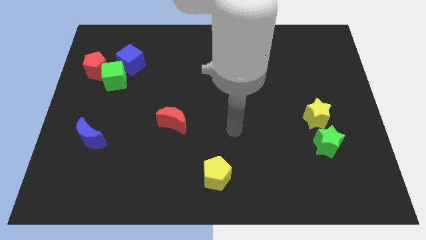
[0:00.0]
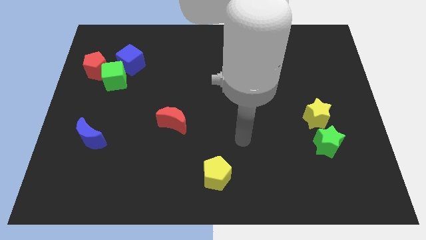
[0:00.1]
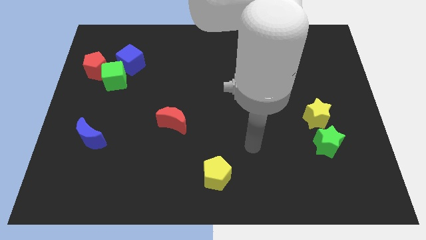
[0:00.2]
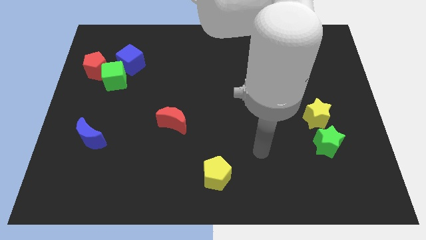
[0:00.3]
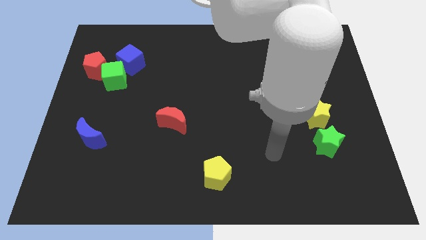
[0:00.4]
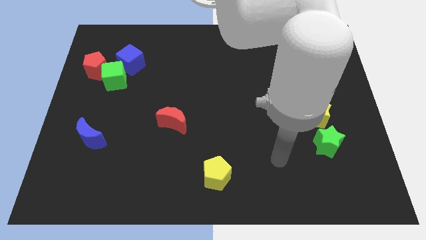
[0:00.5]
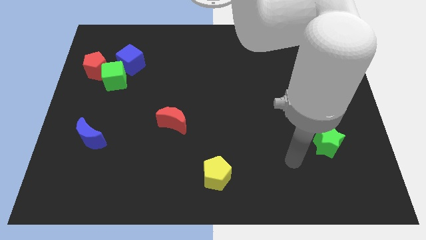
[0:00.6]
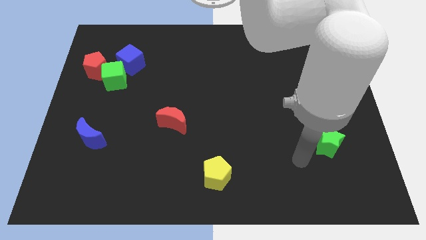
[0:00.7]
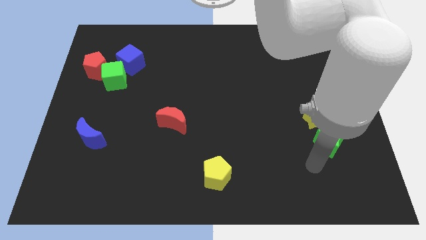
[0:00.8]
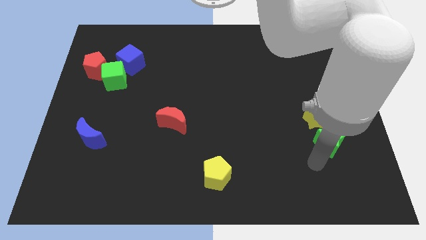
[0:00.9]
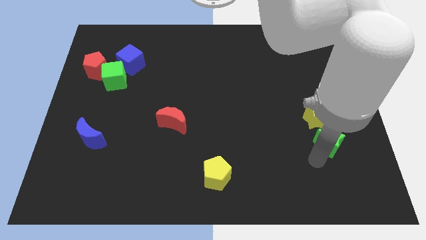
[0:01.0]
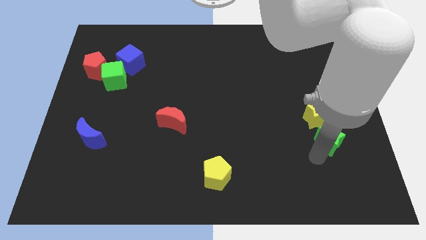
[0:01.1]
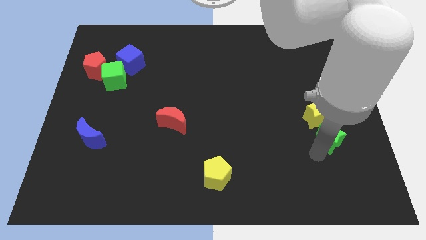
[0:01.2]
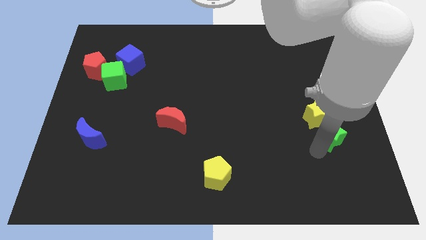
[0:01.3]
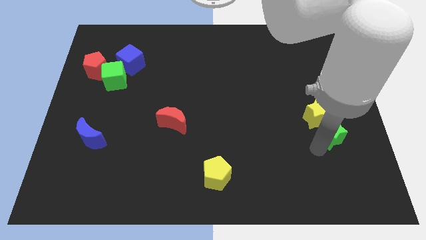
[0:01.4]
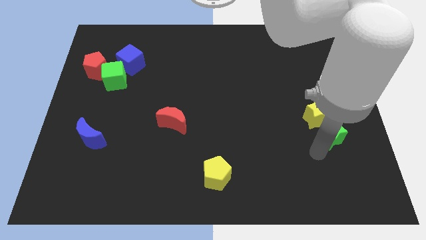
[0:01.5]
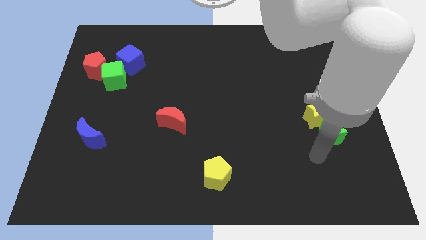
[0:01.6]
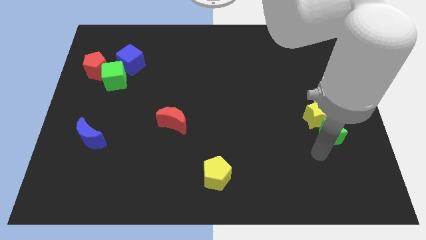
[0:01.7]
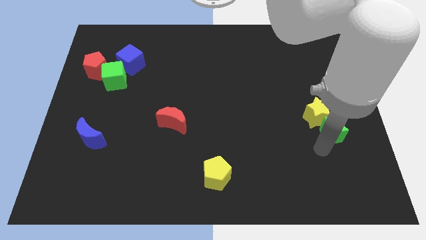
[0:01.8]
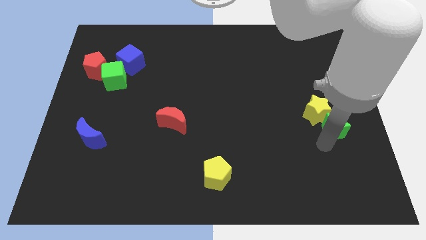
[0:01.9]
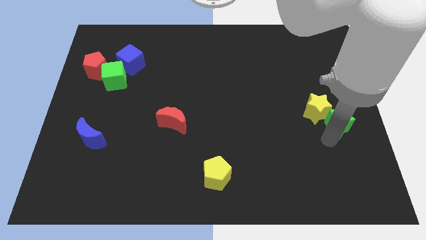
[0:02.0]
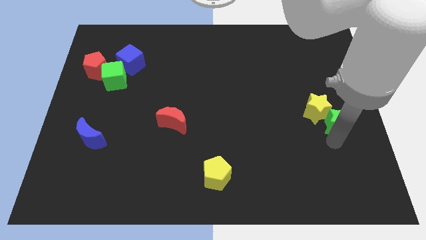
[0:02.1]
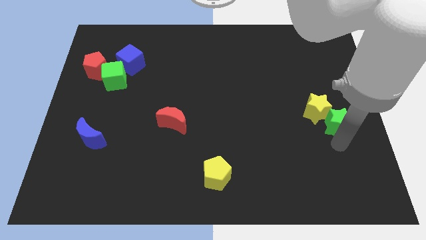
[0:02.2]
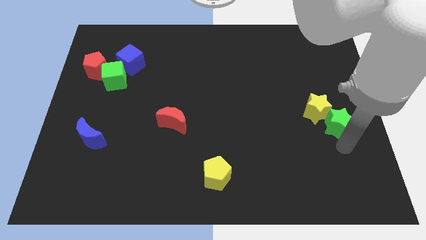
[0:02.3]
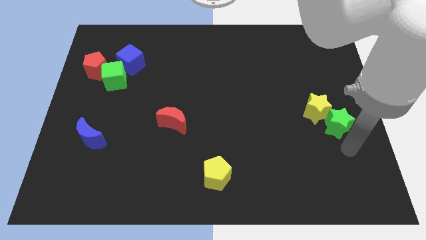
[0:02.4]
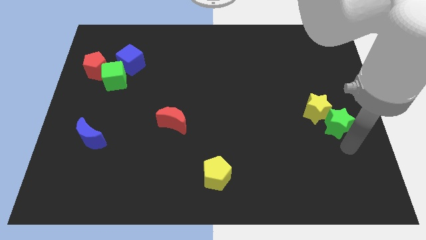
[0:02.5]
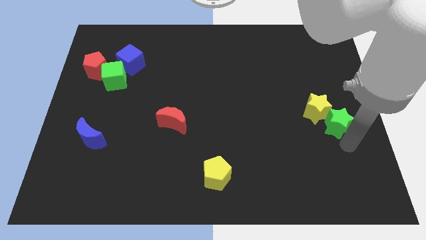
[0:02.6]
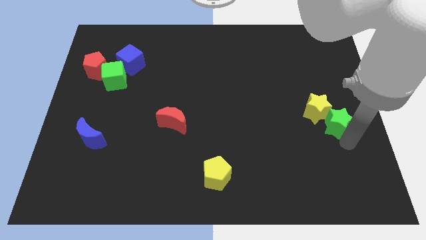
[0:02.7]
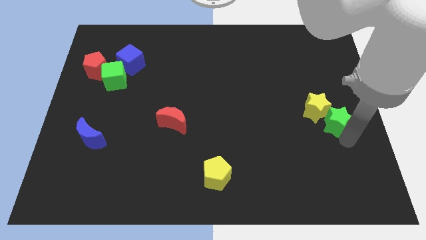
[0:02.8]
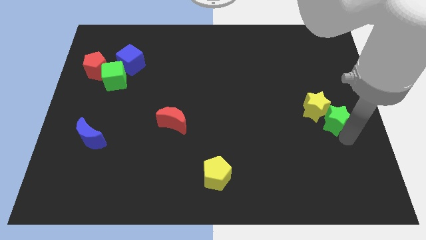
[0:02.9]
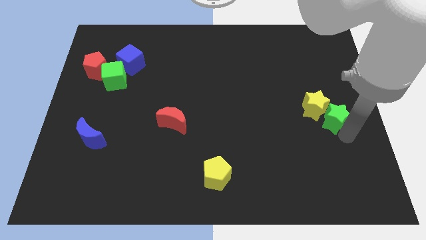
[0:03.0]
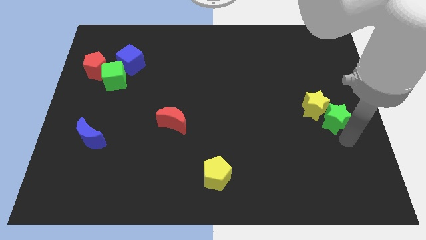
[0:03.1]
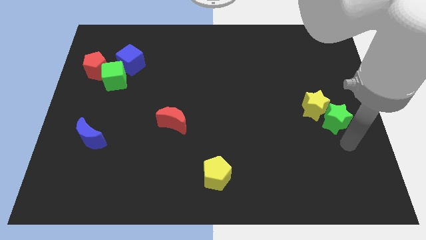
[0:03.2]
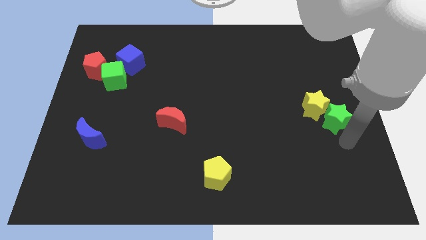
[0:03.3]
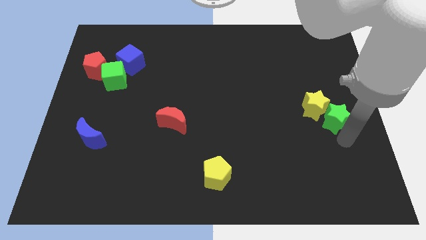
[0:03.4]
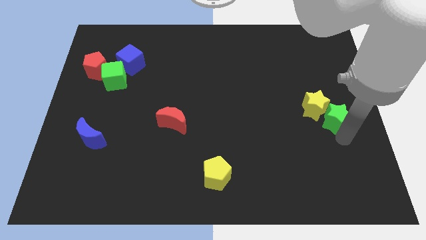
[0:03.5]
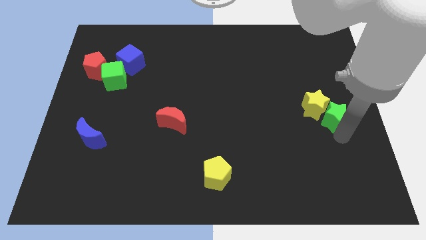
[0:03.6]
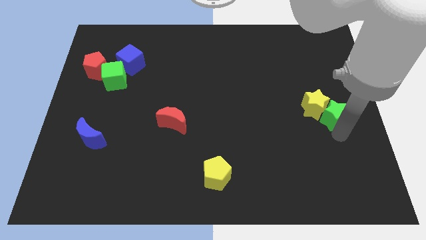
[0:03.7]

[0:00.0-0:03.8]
move the green star a little bit upwards

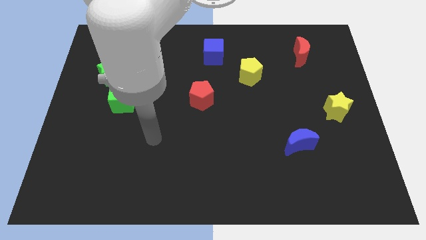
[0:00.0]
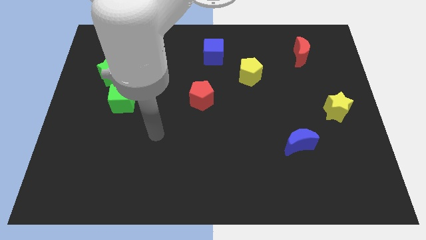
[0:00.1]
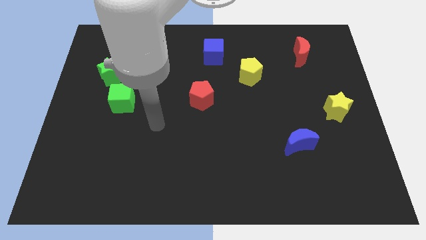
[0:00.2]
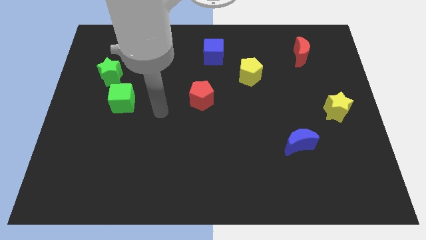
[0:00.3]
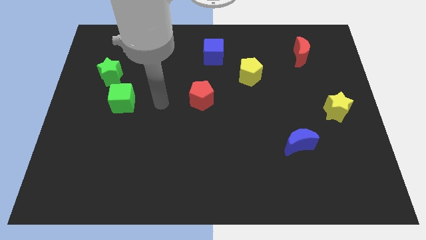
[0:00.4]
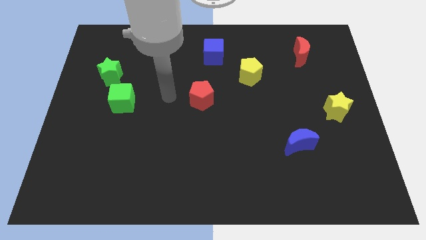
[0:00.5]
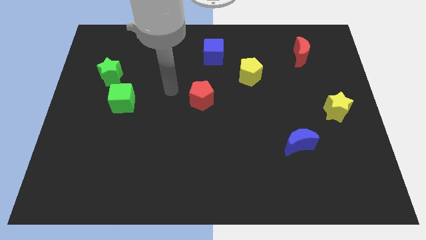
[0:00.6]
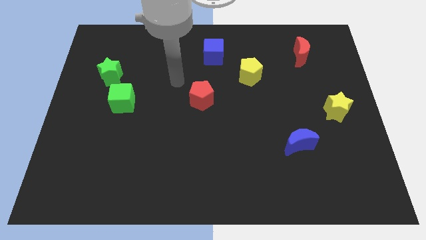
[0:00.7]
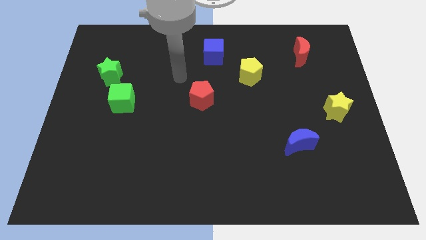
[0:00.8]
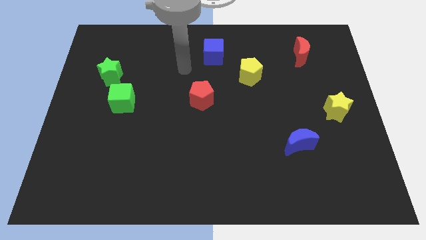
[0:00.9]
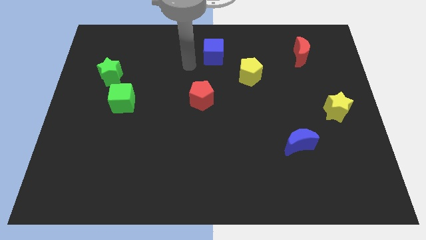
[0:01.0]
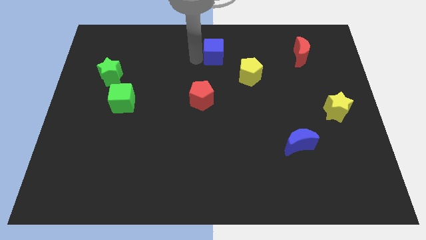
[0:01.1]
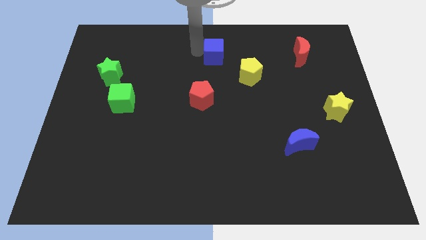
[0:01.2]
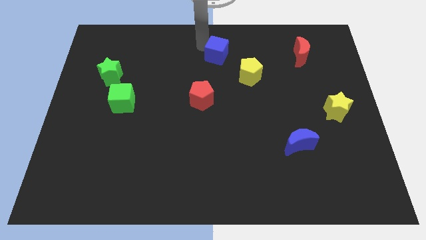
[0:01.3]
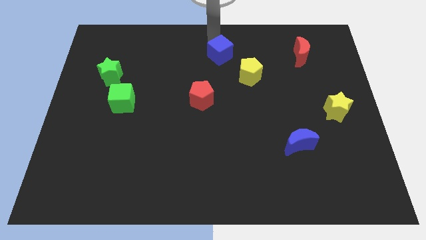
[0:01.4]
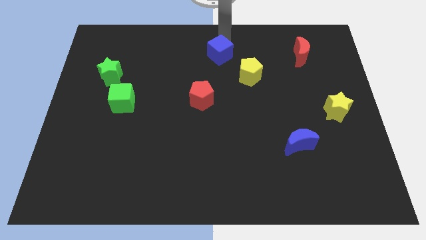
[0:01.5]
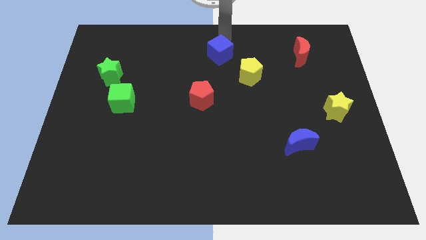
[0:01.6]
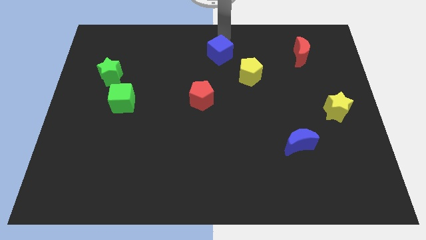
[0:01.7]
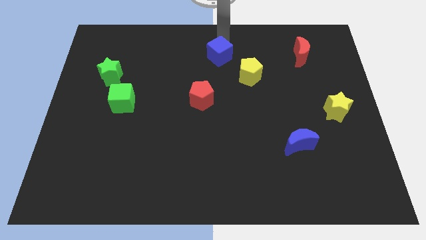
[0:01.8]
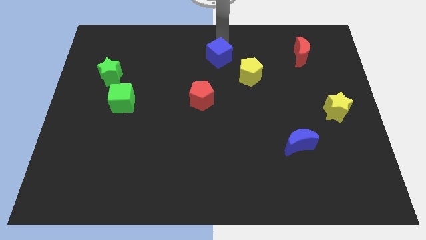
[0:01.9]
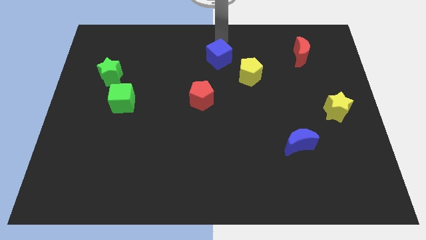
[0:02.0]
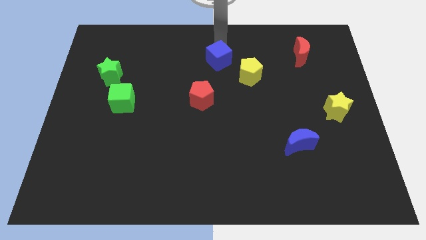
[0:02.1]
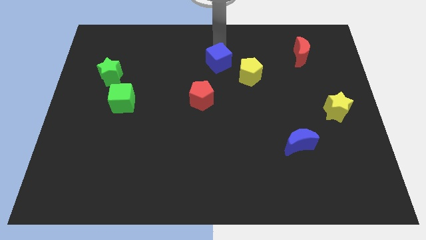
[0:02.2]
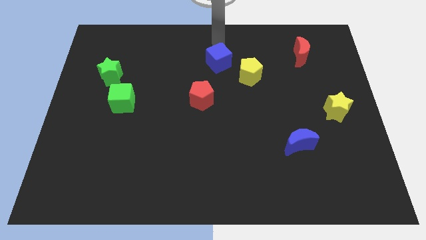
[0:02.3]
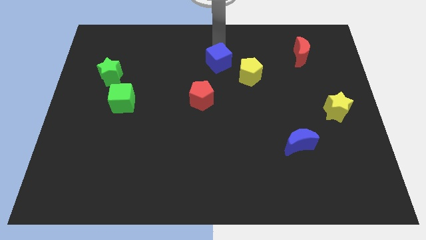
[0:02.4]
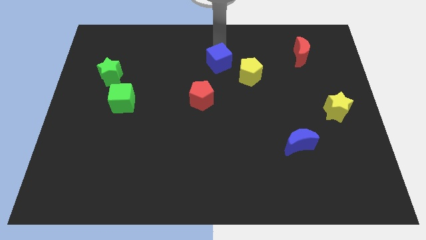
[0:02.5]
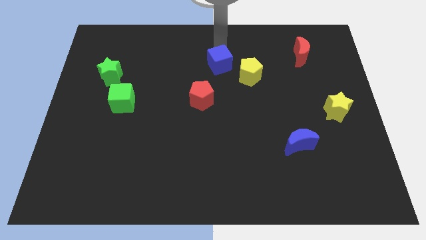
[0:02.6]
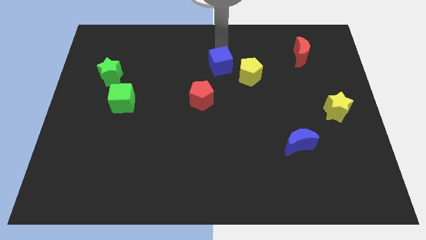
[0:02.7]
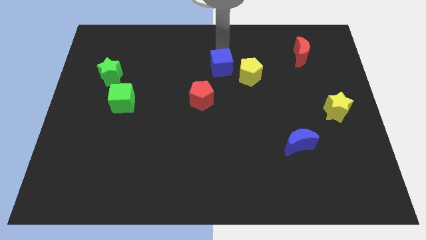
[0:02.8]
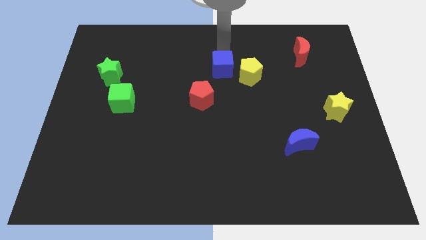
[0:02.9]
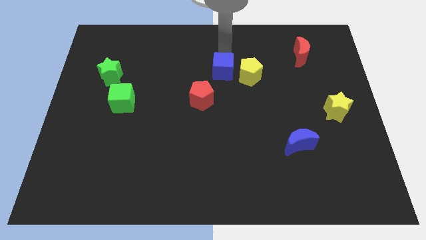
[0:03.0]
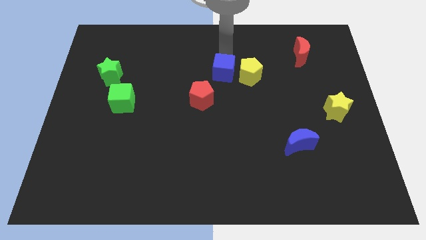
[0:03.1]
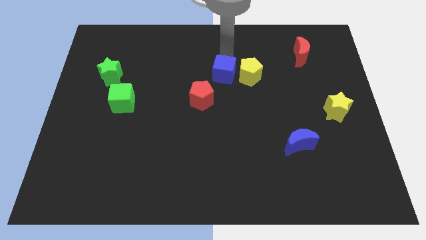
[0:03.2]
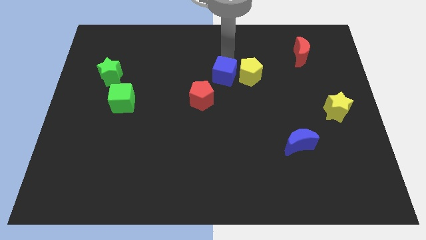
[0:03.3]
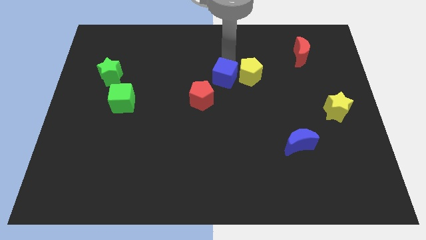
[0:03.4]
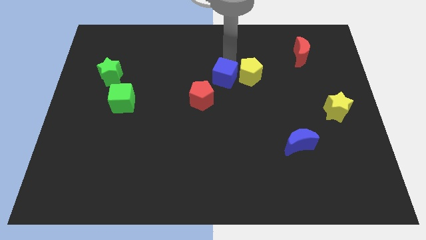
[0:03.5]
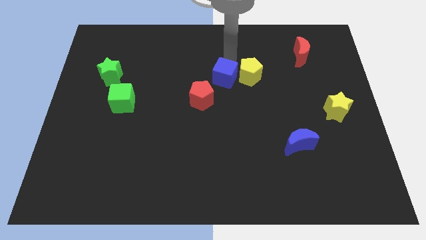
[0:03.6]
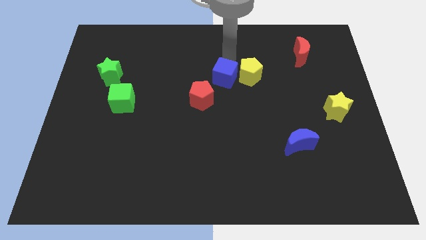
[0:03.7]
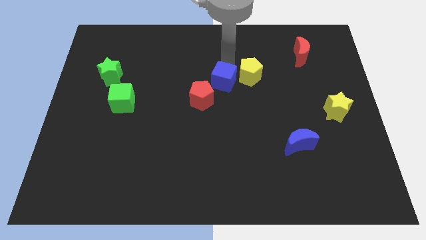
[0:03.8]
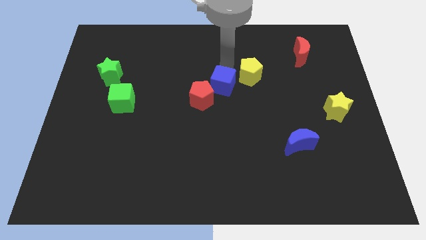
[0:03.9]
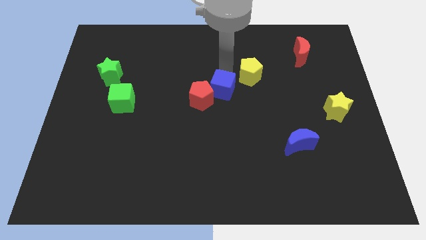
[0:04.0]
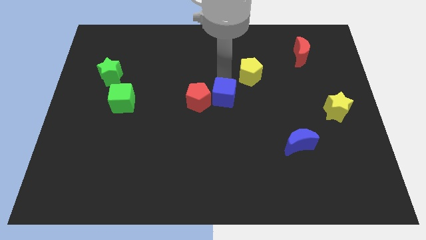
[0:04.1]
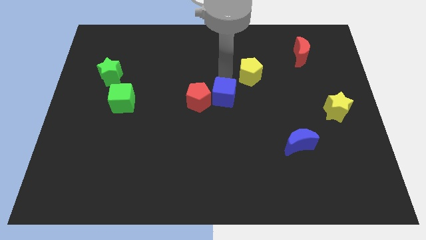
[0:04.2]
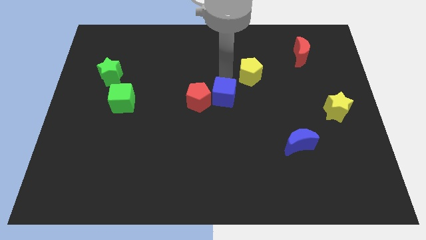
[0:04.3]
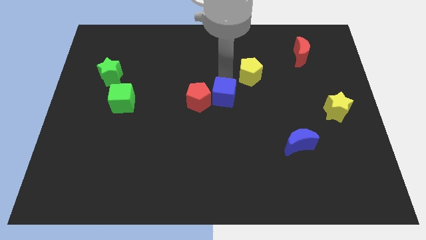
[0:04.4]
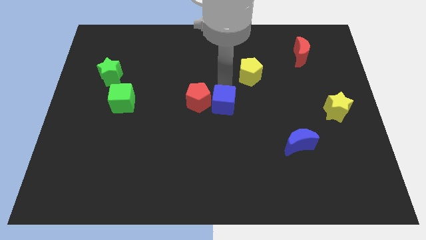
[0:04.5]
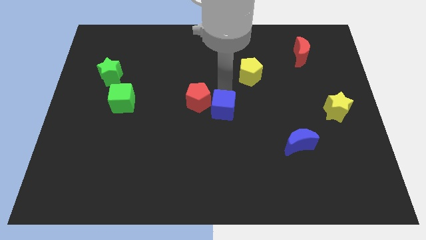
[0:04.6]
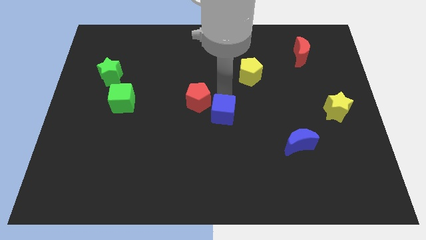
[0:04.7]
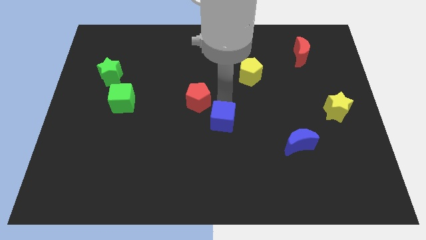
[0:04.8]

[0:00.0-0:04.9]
push the blue cube downwards
